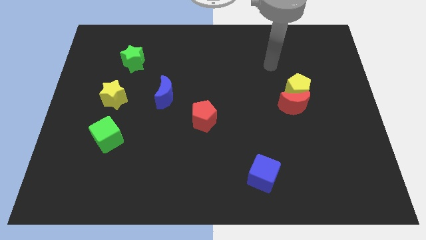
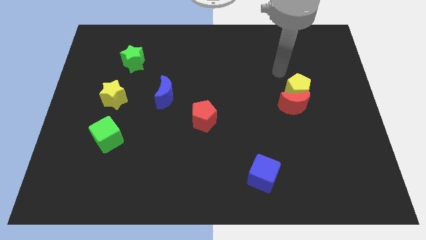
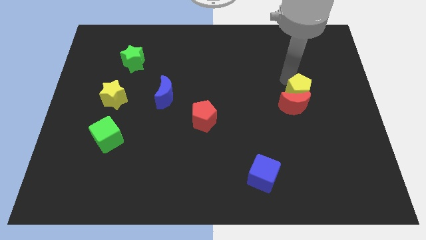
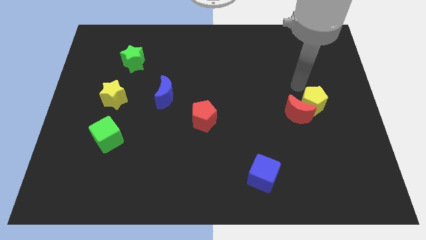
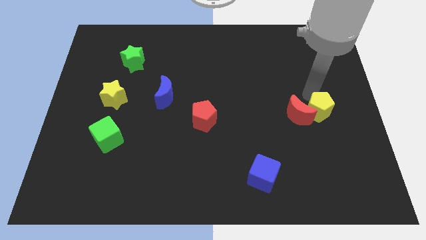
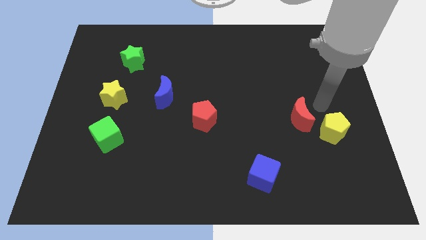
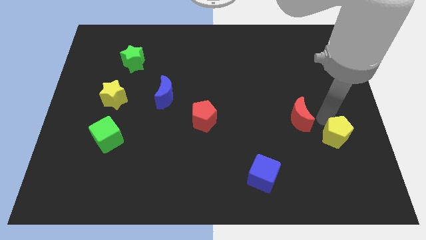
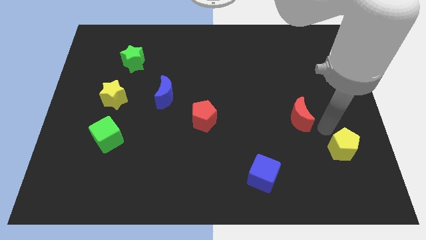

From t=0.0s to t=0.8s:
move the red moon away from the yellow pentagon

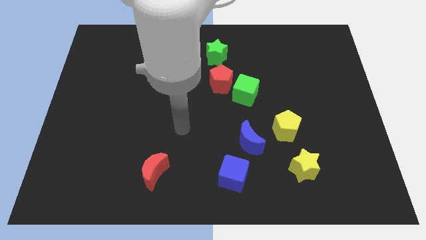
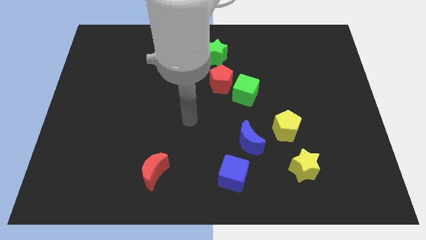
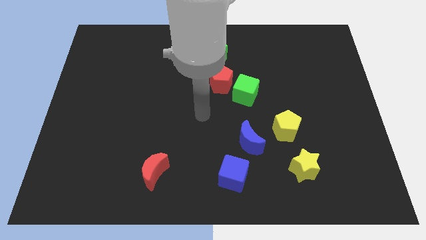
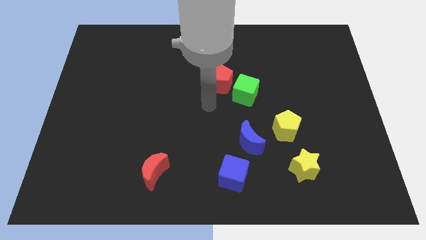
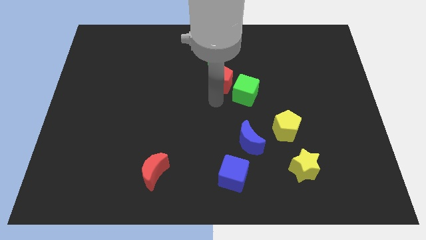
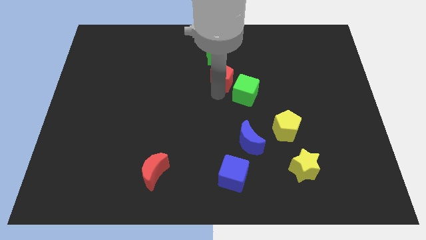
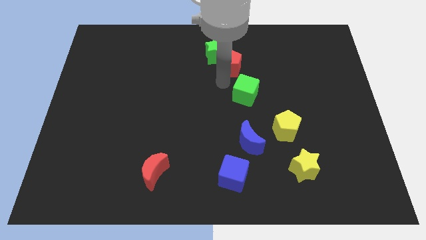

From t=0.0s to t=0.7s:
move the green cube away from the red pentagon

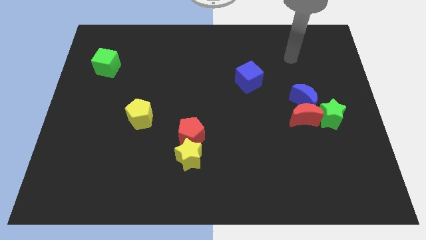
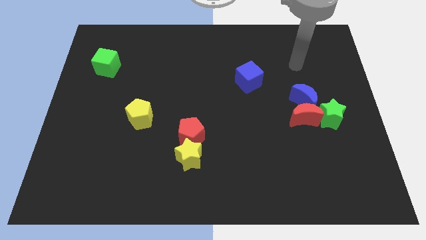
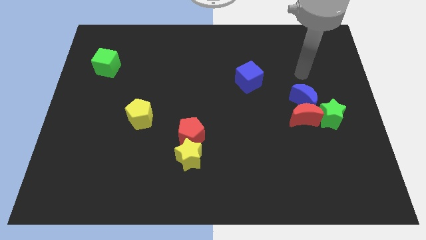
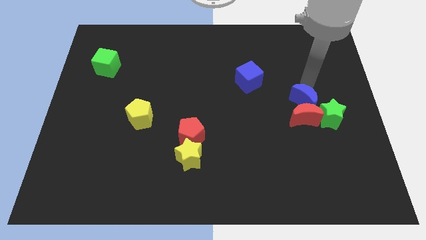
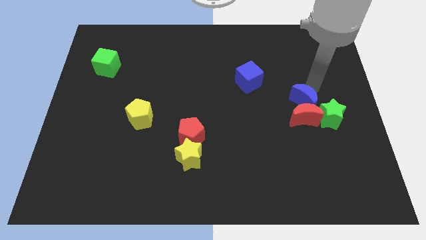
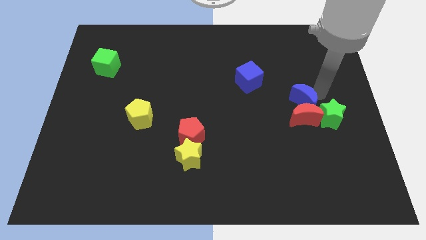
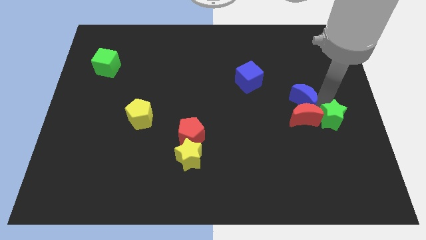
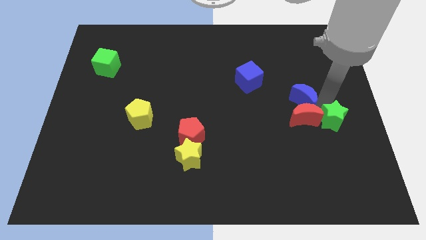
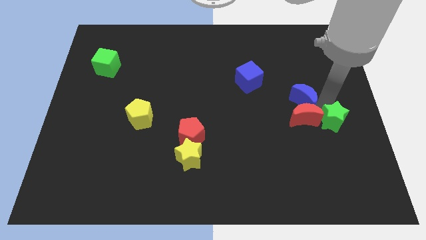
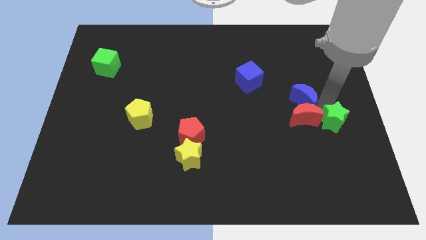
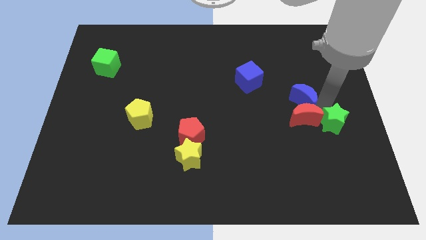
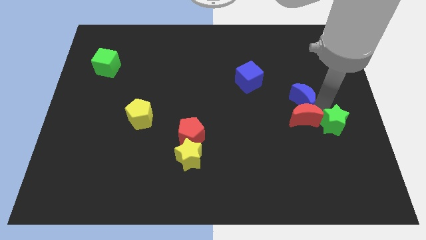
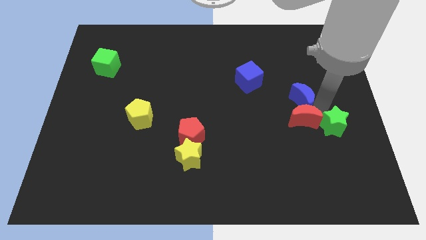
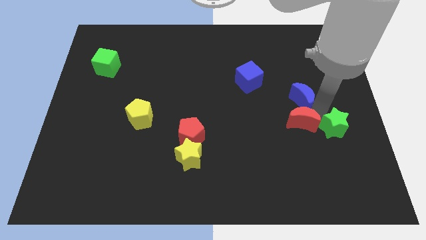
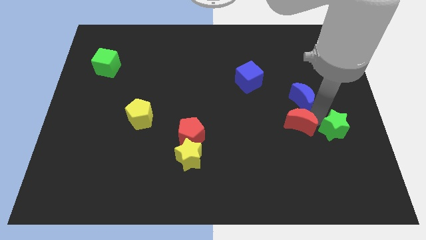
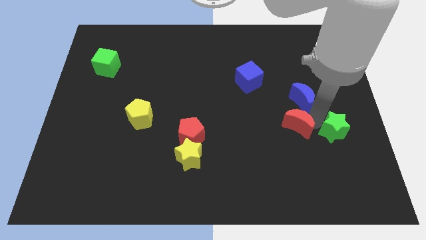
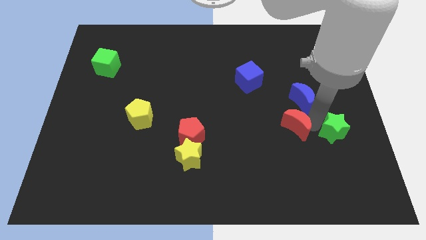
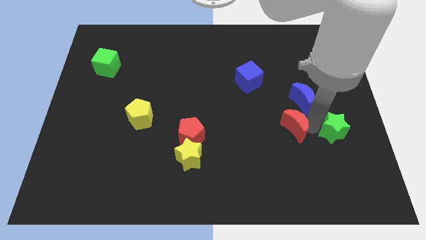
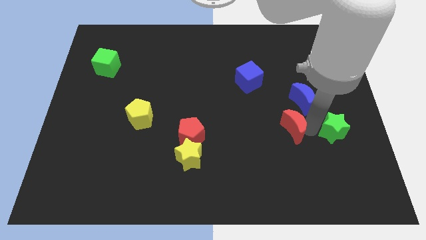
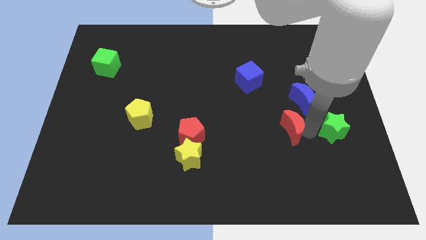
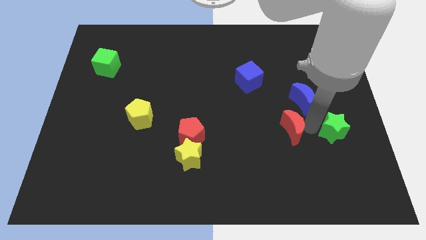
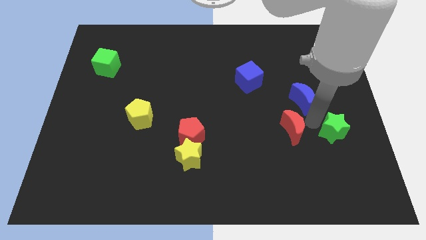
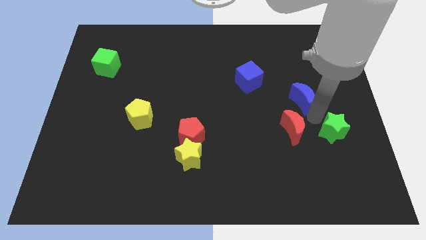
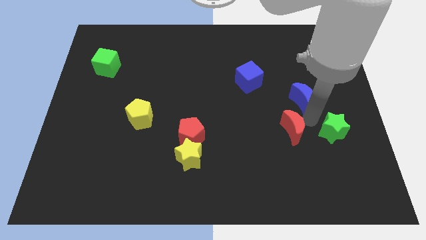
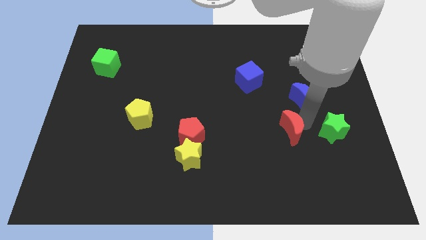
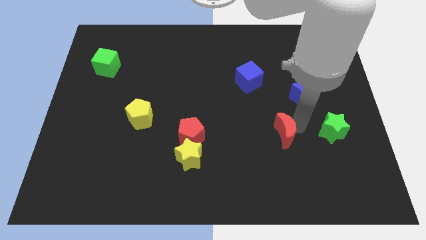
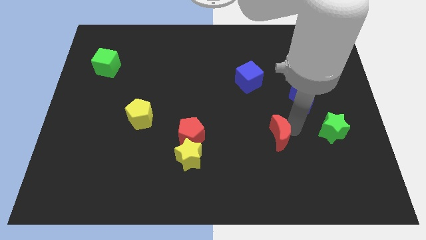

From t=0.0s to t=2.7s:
move the red moon away from the blue moon and green star

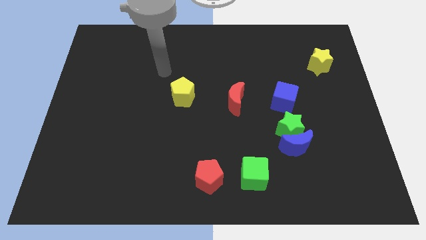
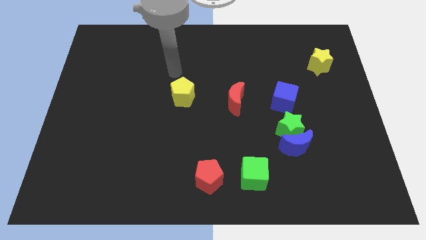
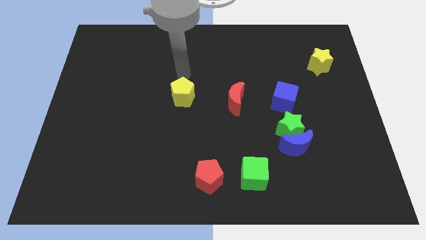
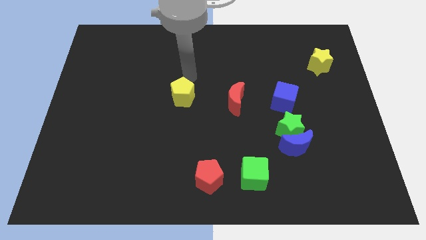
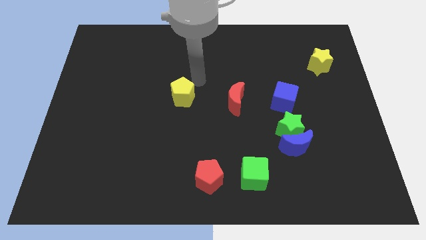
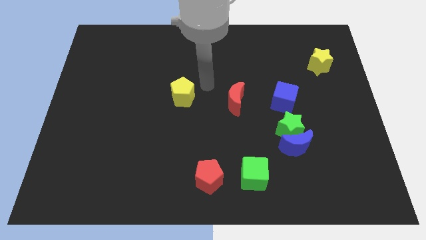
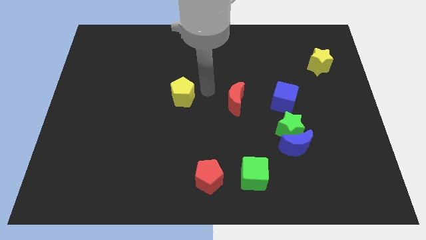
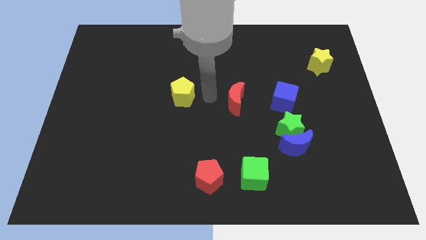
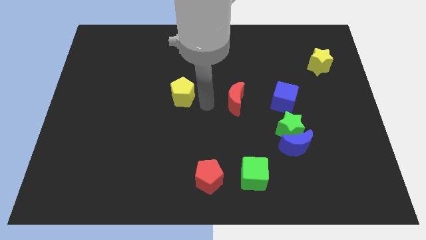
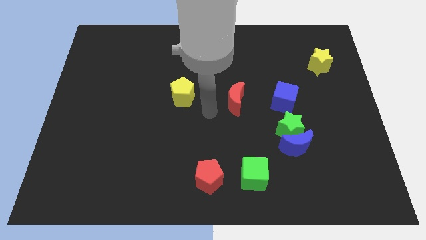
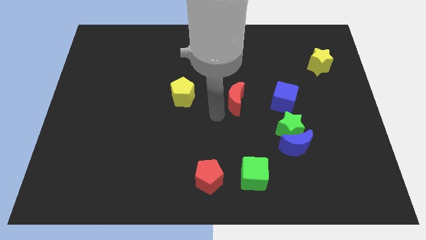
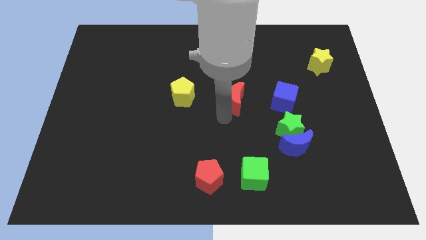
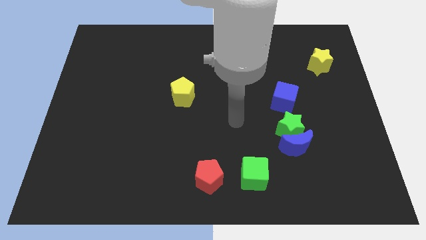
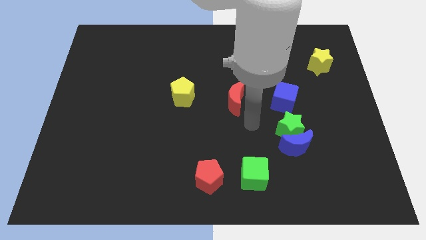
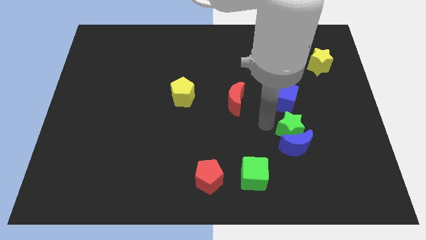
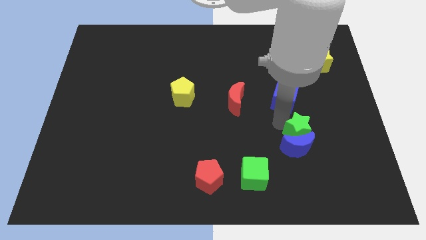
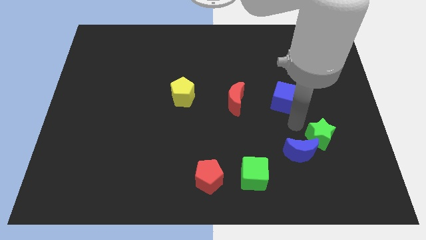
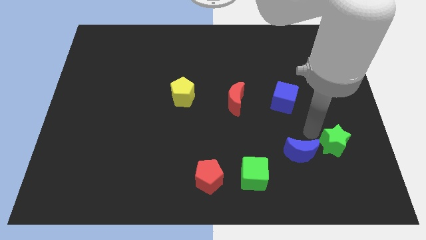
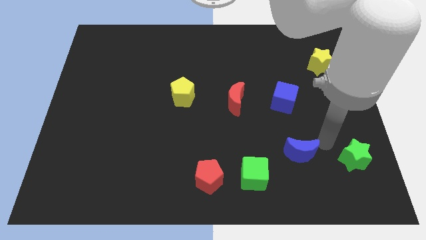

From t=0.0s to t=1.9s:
move the blue moon away from the green star

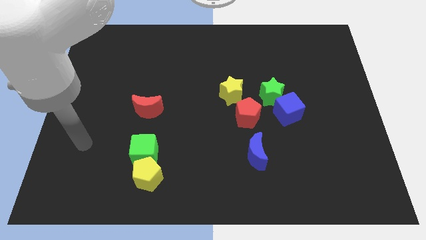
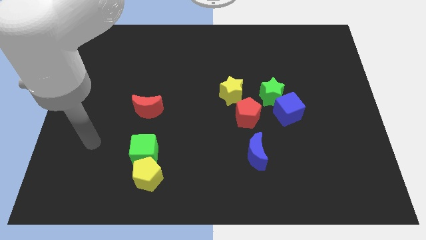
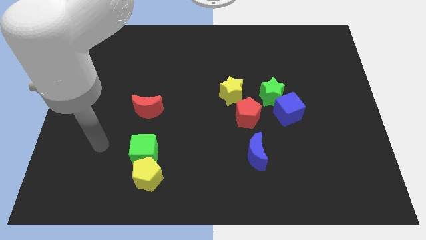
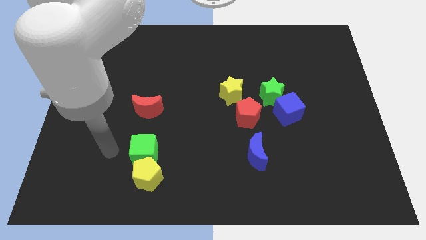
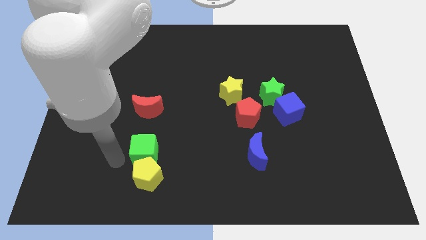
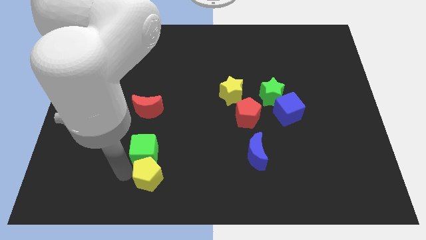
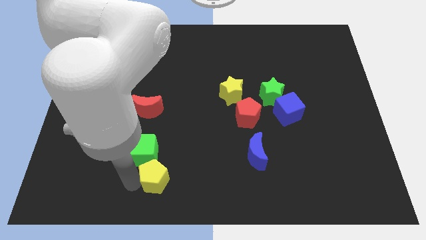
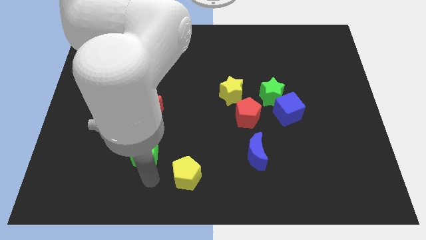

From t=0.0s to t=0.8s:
separate the green cube from the yellow pentagon

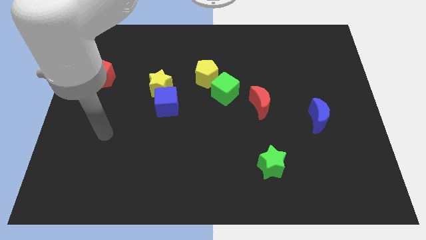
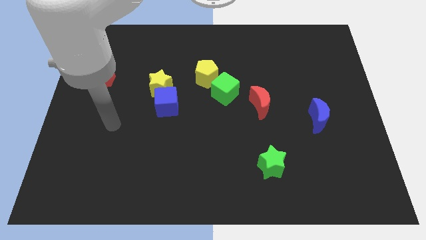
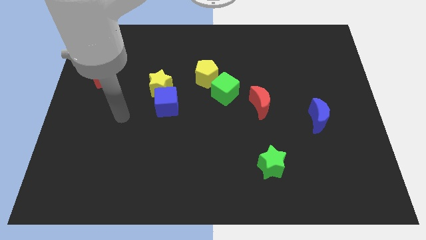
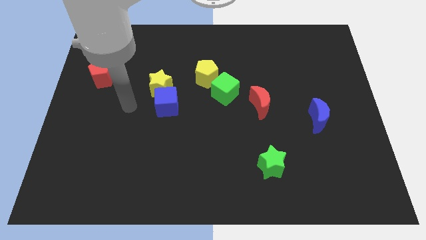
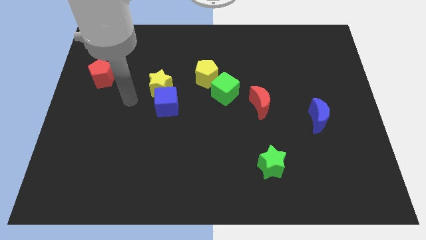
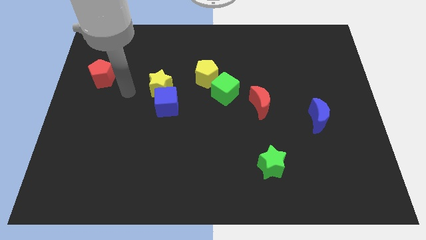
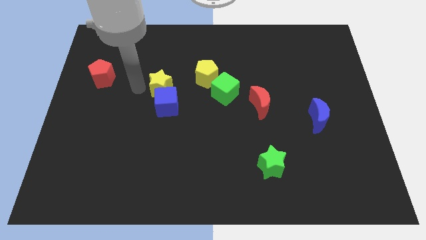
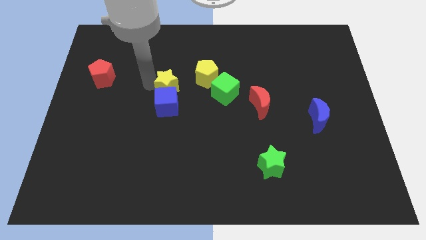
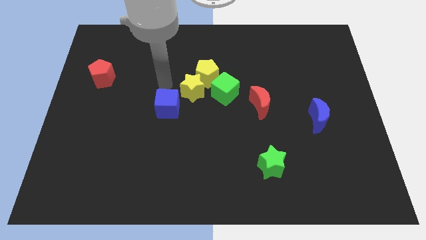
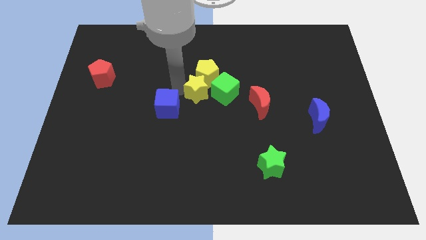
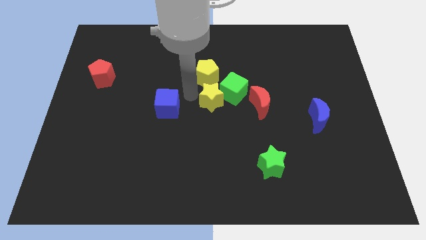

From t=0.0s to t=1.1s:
move the blue cube away from the yellow star

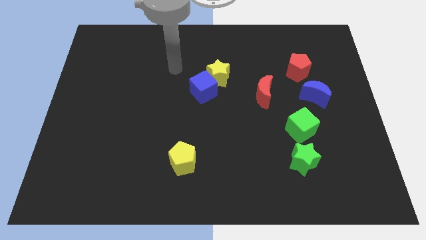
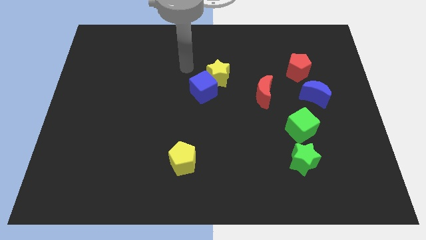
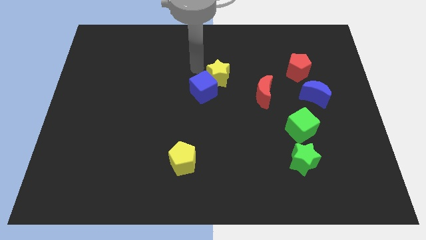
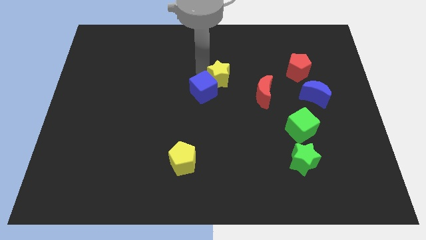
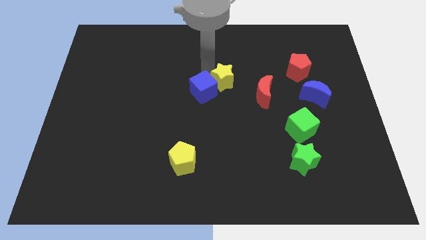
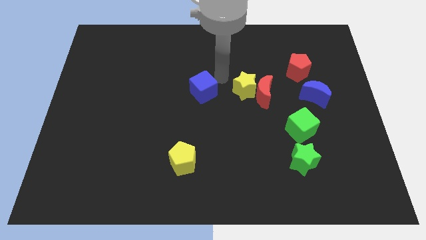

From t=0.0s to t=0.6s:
pull the blue cube apart from the yellow star

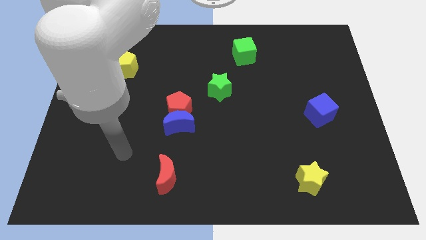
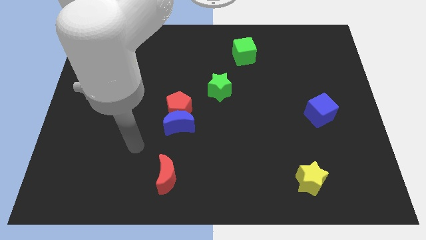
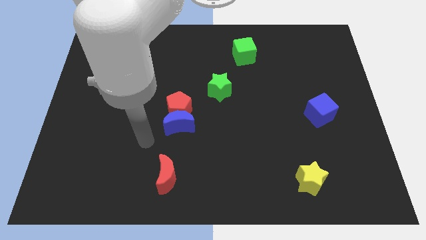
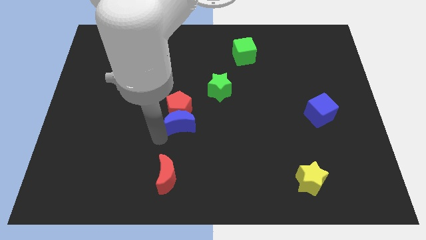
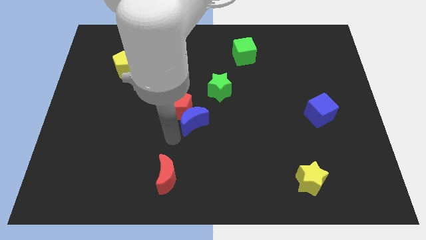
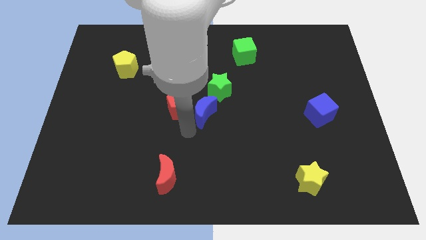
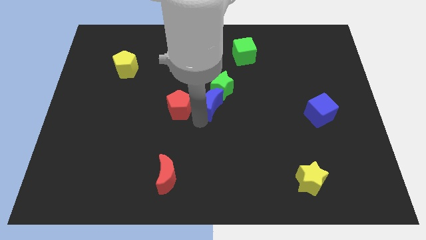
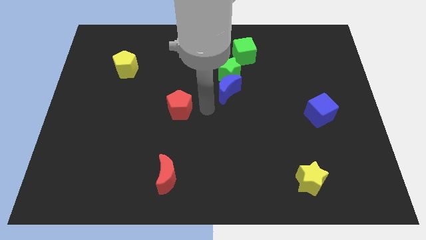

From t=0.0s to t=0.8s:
separate the red pentagon from the blue moon
